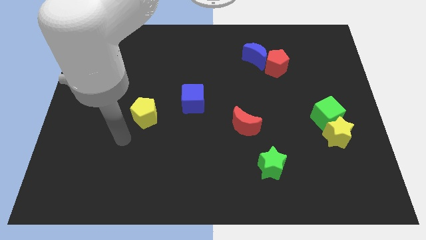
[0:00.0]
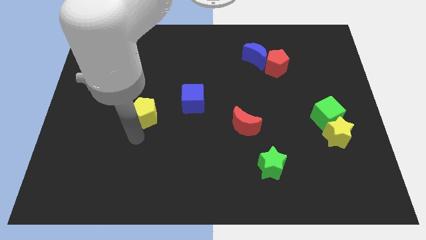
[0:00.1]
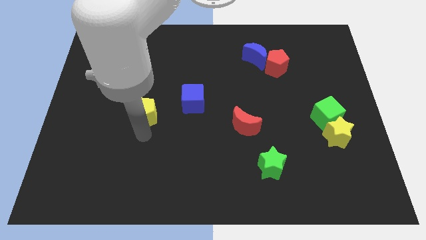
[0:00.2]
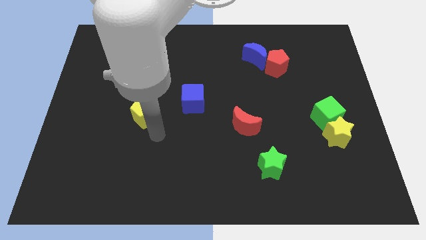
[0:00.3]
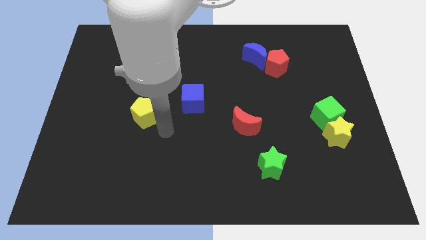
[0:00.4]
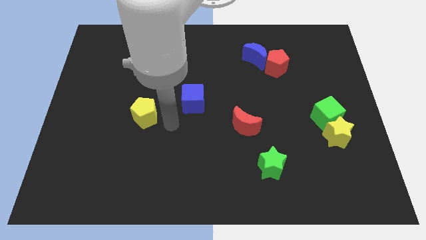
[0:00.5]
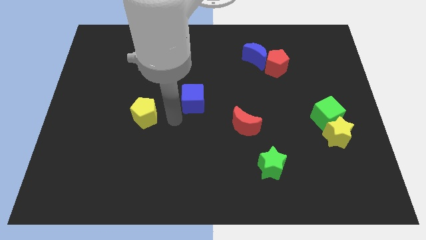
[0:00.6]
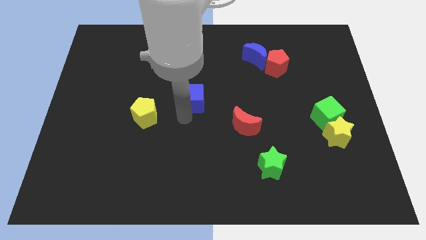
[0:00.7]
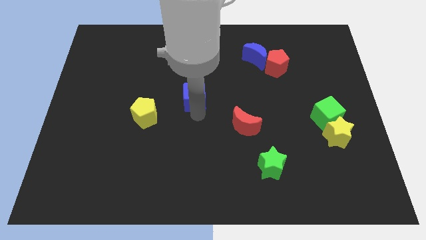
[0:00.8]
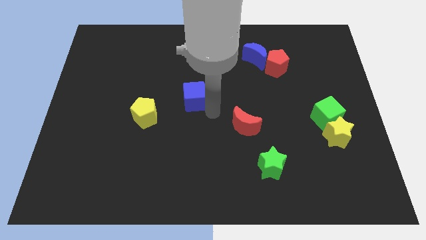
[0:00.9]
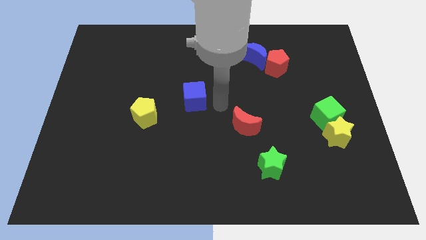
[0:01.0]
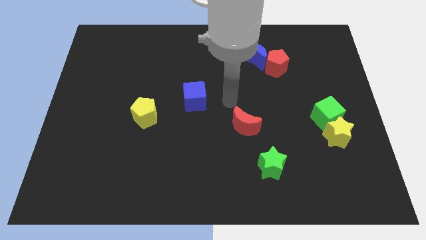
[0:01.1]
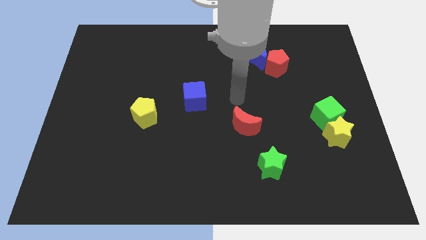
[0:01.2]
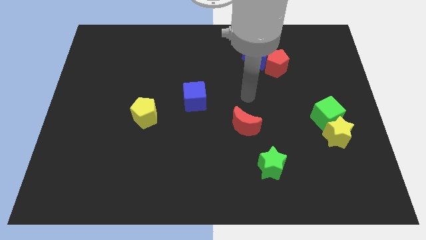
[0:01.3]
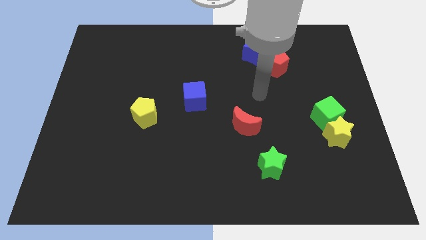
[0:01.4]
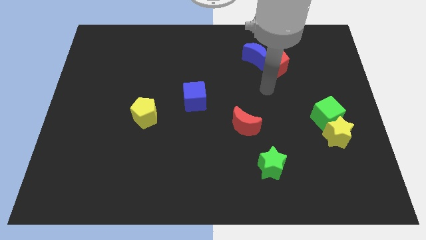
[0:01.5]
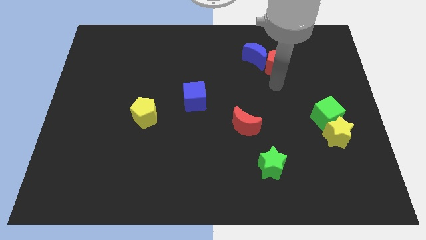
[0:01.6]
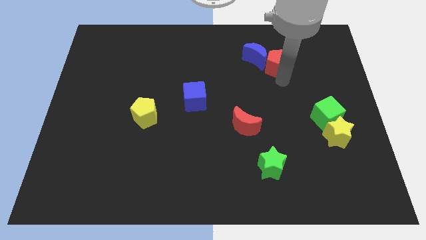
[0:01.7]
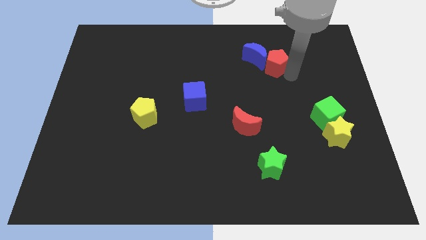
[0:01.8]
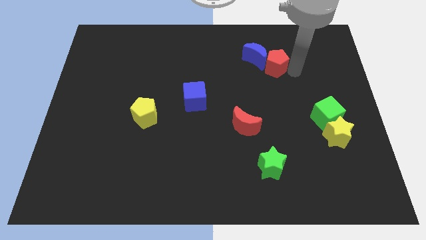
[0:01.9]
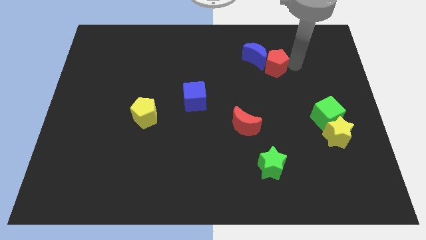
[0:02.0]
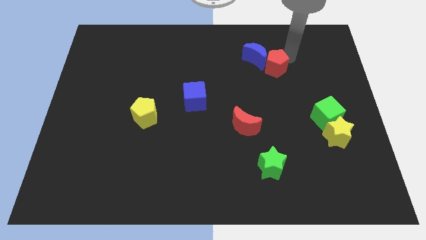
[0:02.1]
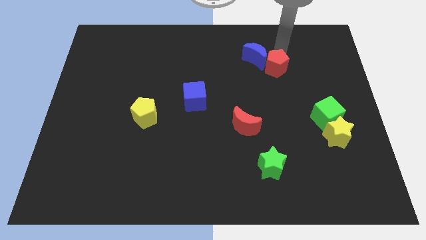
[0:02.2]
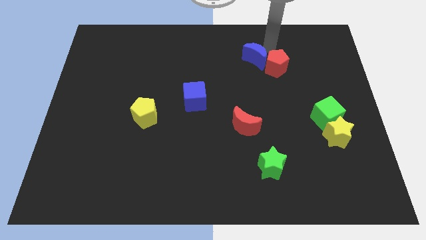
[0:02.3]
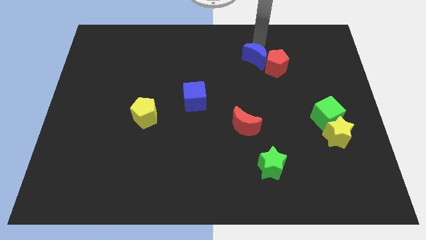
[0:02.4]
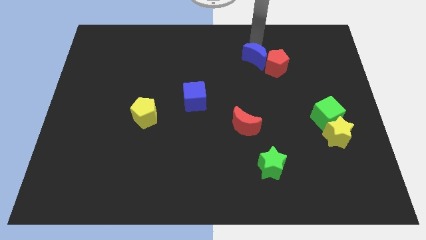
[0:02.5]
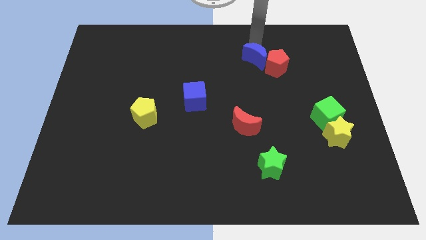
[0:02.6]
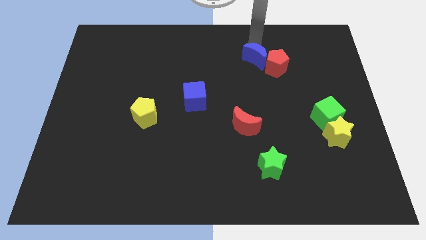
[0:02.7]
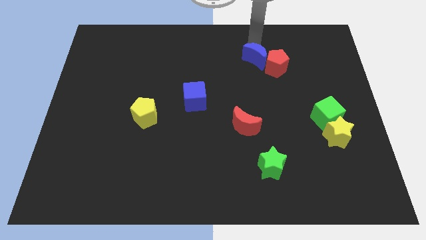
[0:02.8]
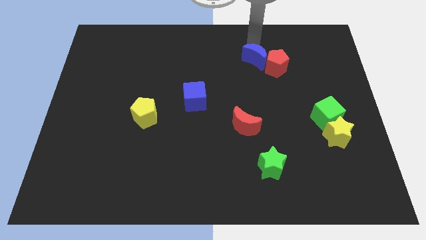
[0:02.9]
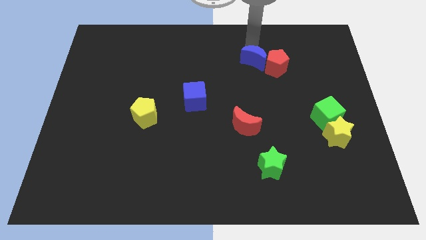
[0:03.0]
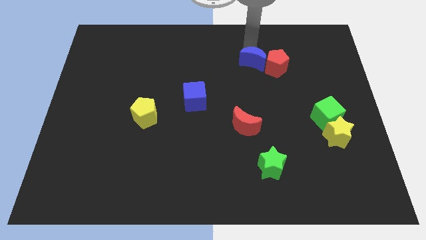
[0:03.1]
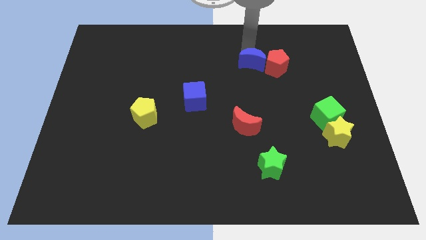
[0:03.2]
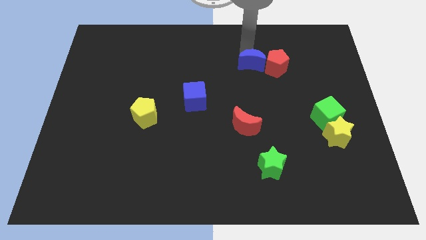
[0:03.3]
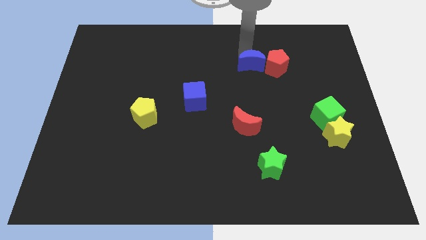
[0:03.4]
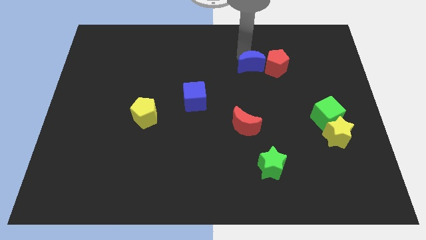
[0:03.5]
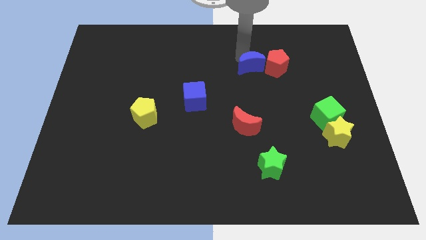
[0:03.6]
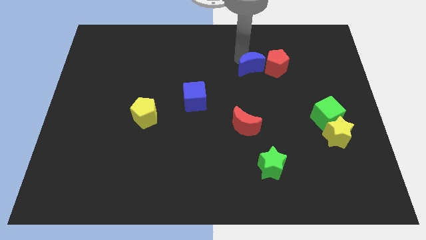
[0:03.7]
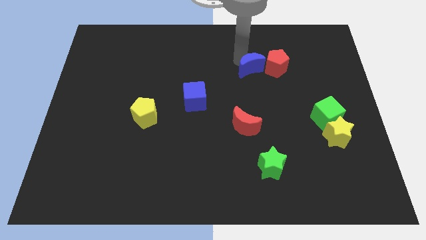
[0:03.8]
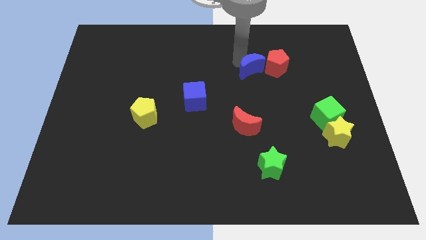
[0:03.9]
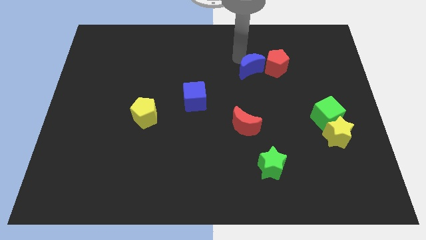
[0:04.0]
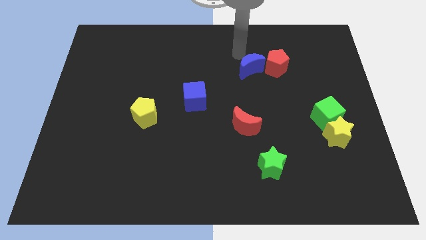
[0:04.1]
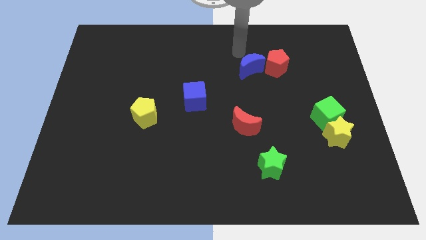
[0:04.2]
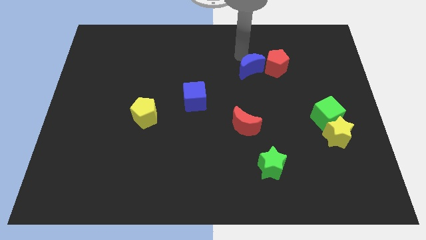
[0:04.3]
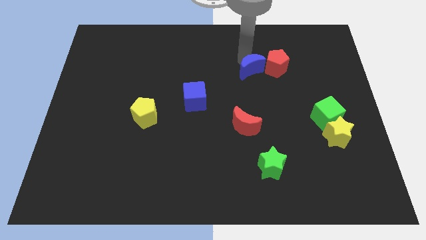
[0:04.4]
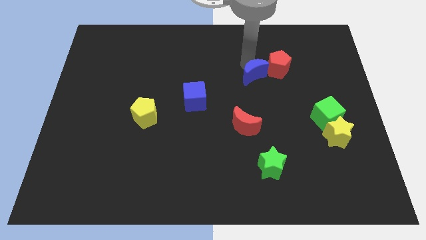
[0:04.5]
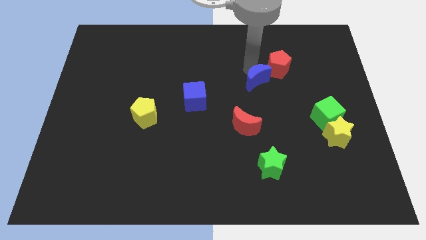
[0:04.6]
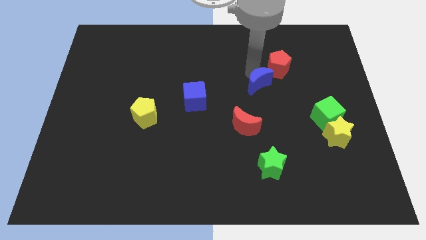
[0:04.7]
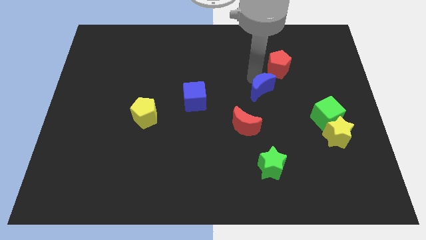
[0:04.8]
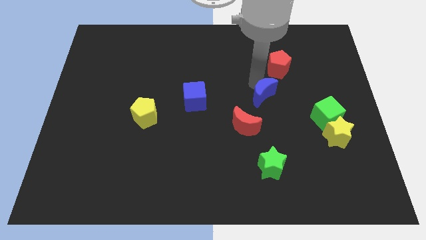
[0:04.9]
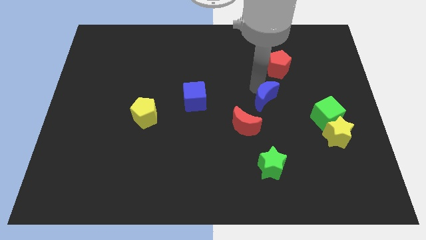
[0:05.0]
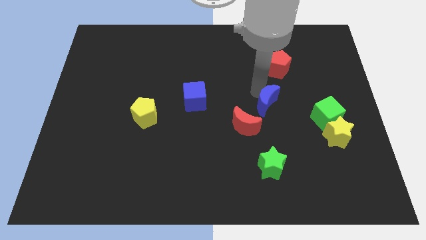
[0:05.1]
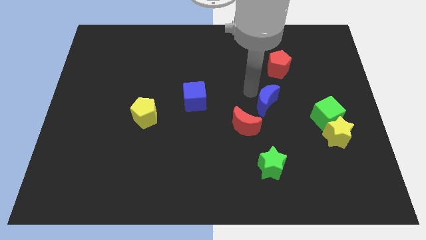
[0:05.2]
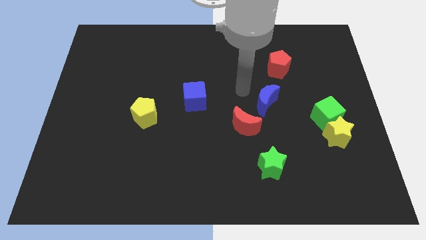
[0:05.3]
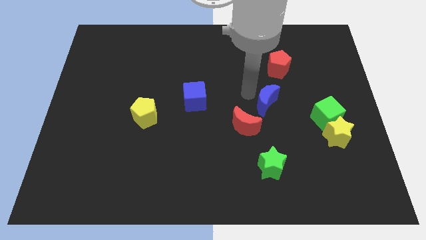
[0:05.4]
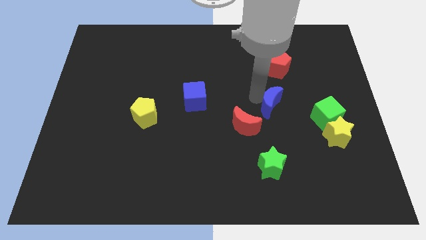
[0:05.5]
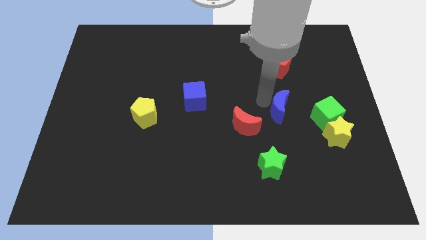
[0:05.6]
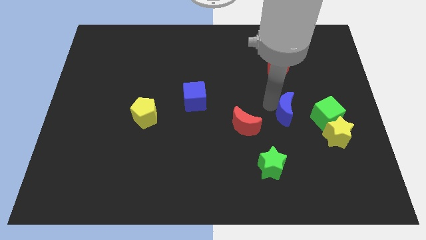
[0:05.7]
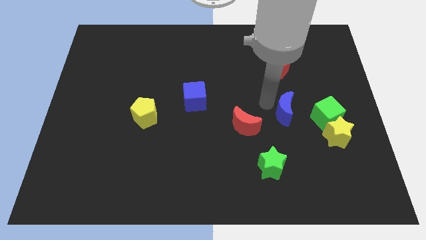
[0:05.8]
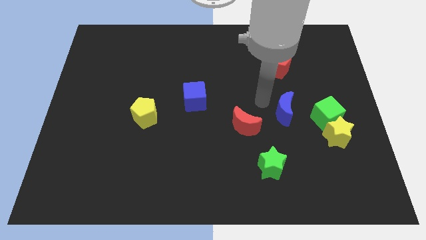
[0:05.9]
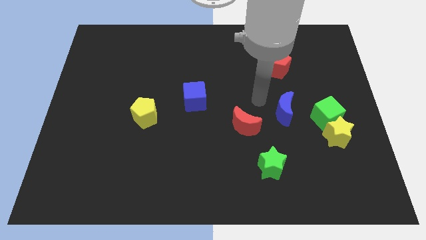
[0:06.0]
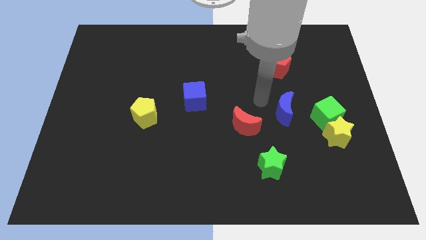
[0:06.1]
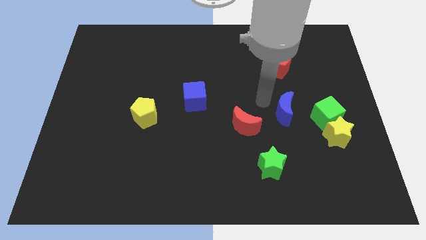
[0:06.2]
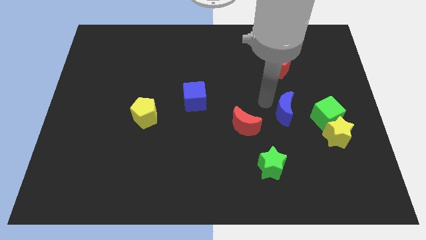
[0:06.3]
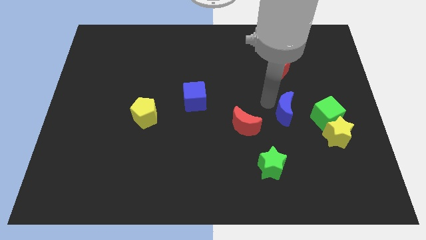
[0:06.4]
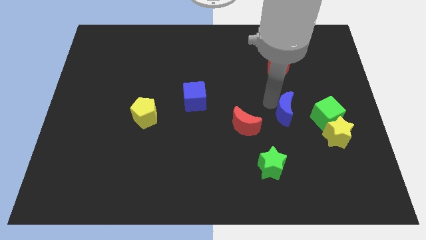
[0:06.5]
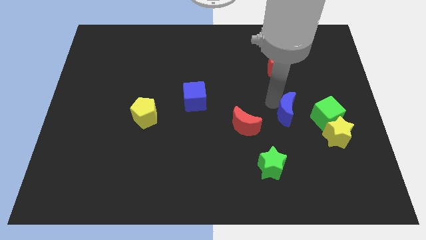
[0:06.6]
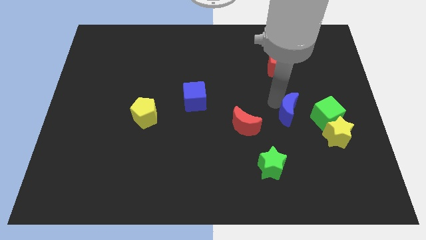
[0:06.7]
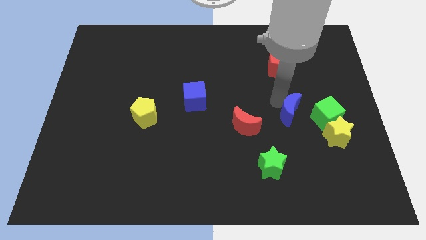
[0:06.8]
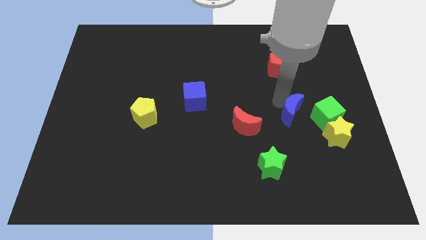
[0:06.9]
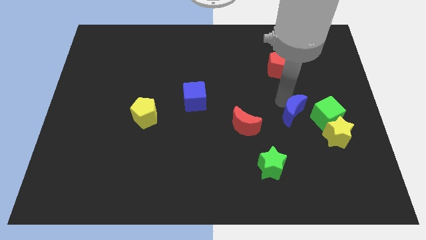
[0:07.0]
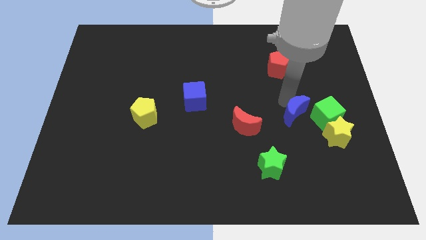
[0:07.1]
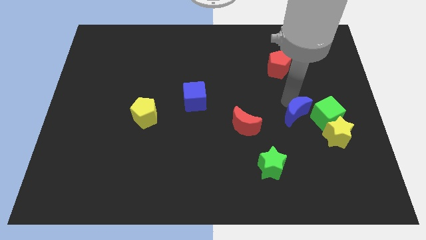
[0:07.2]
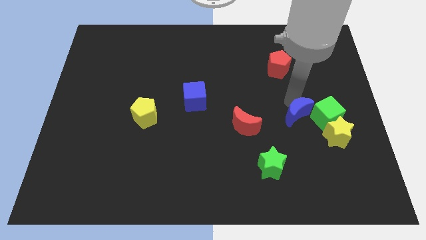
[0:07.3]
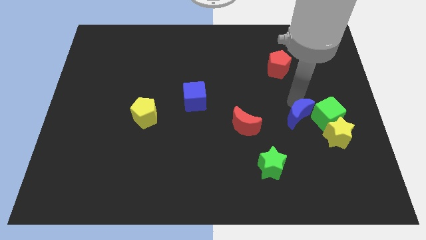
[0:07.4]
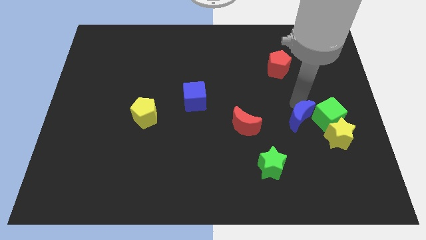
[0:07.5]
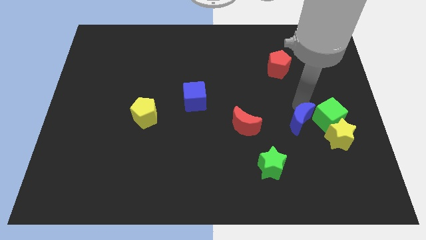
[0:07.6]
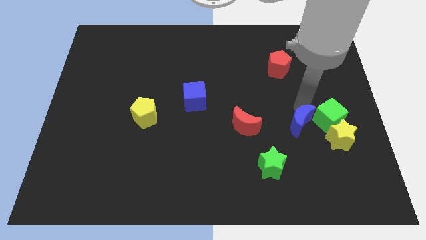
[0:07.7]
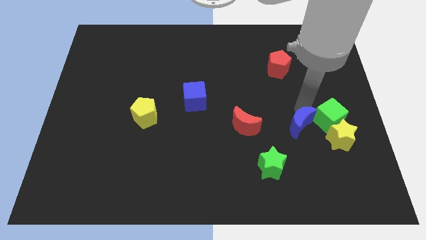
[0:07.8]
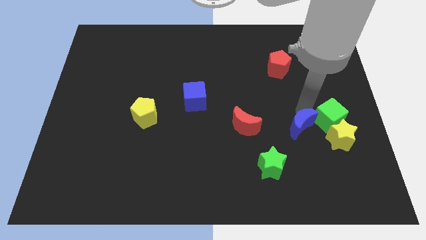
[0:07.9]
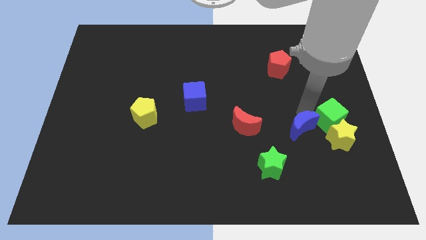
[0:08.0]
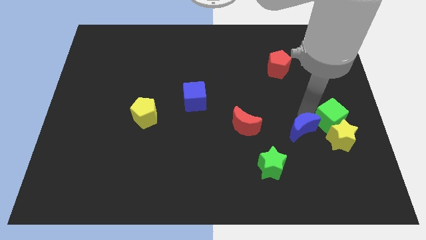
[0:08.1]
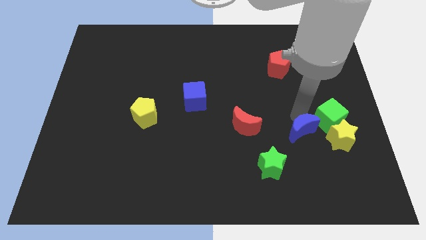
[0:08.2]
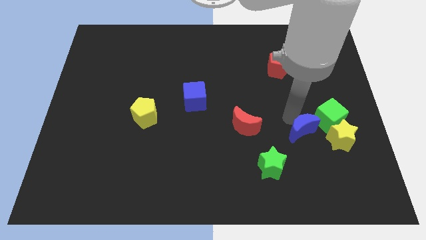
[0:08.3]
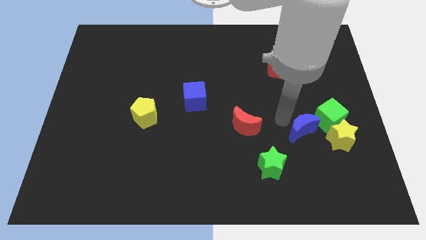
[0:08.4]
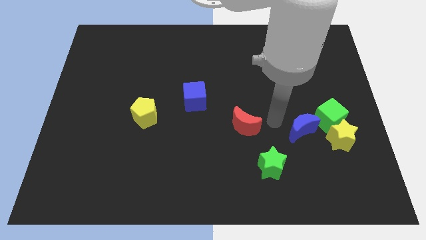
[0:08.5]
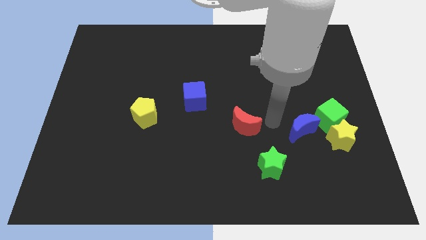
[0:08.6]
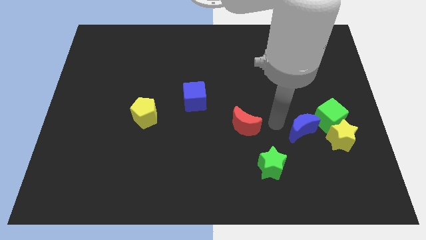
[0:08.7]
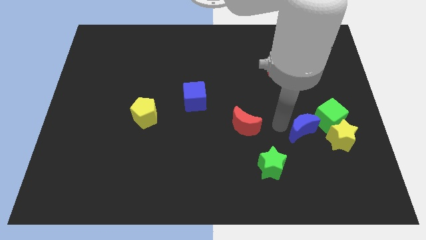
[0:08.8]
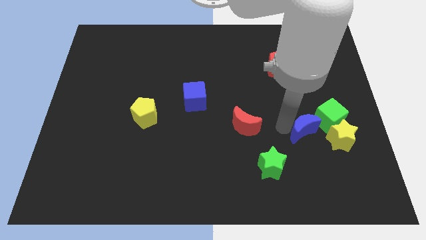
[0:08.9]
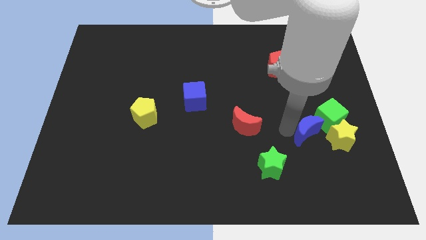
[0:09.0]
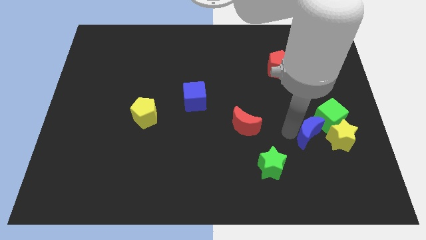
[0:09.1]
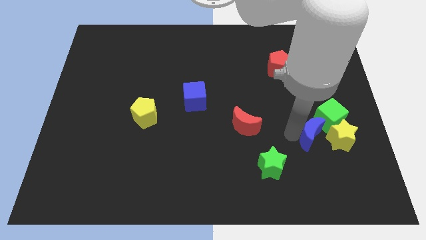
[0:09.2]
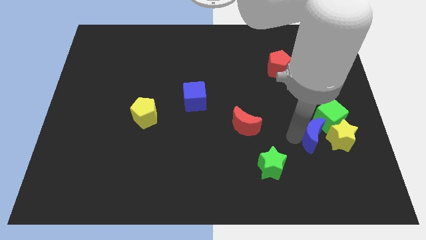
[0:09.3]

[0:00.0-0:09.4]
slide the blue moon close to the yellow star
